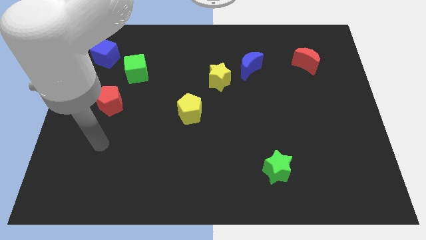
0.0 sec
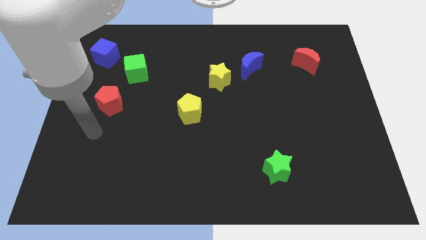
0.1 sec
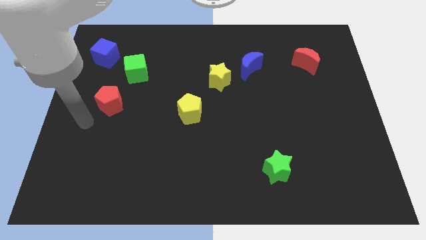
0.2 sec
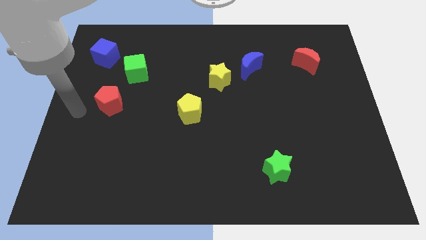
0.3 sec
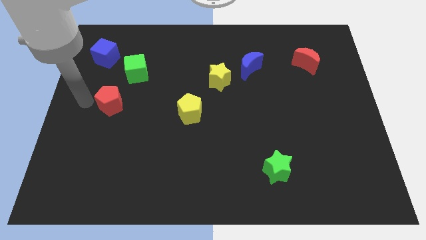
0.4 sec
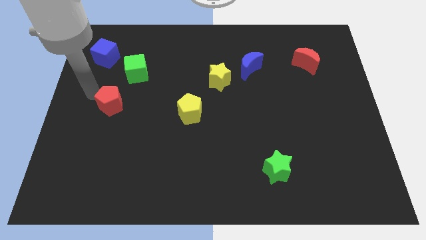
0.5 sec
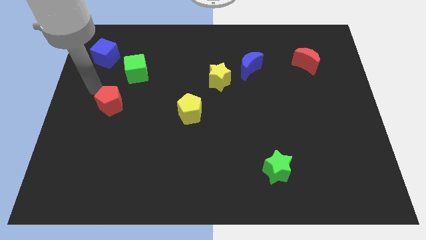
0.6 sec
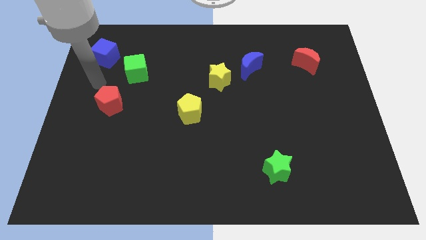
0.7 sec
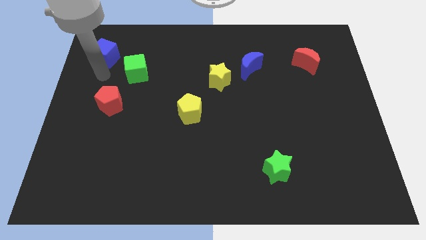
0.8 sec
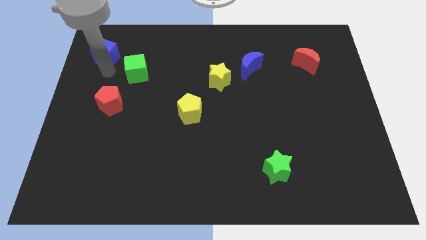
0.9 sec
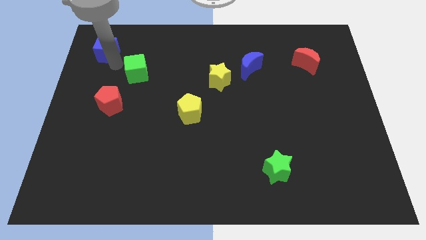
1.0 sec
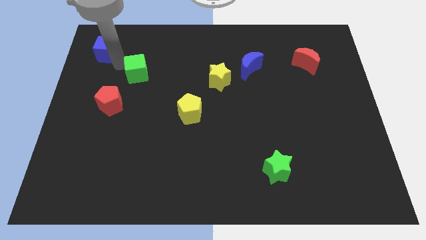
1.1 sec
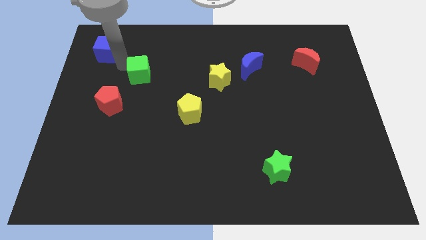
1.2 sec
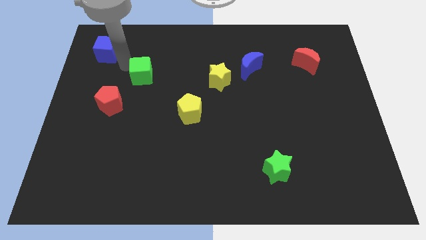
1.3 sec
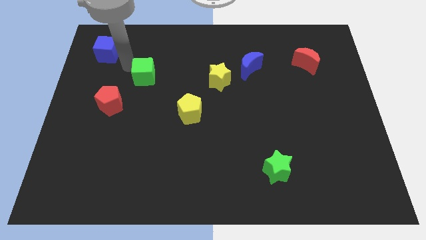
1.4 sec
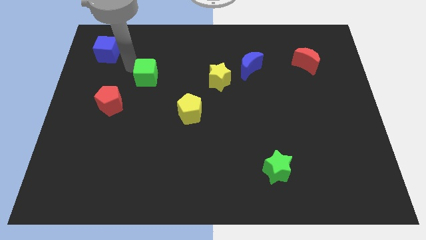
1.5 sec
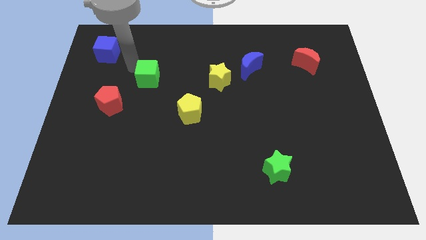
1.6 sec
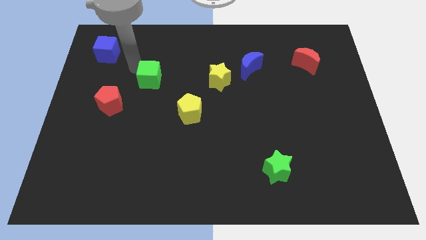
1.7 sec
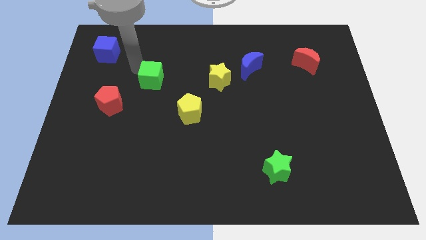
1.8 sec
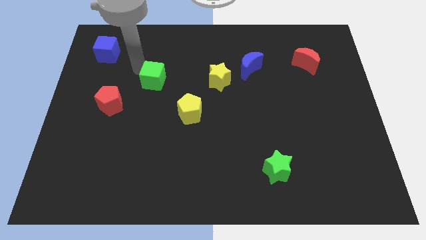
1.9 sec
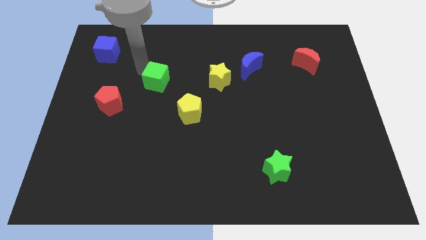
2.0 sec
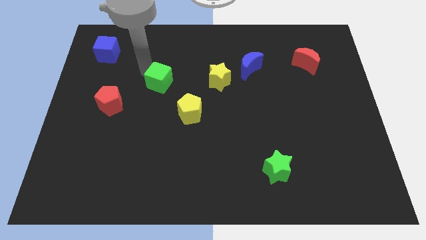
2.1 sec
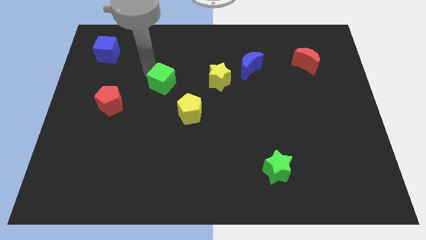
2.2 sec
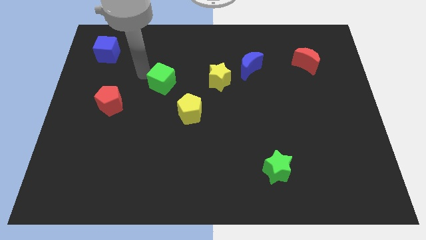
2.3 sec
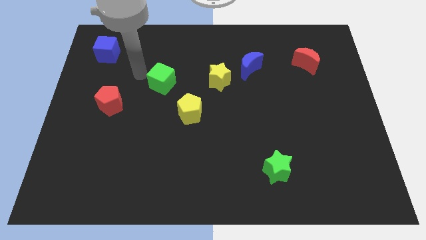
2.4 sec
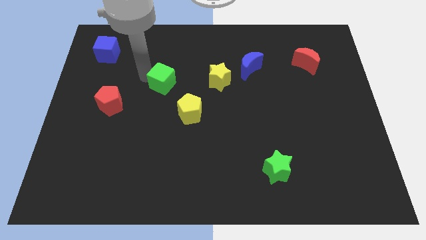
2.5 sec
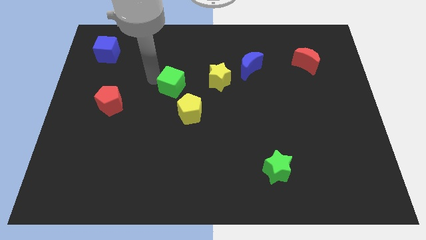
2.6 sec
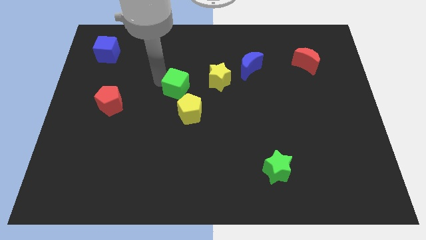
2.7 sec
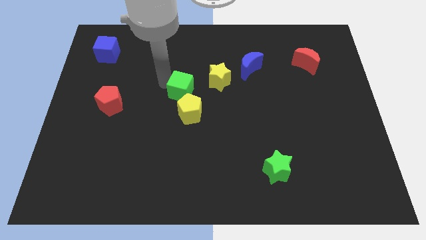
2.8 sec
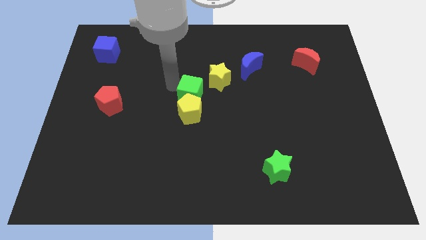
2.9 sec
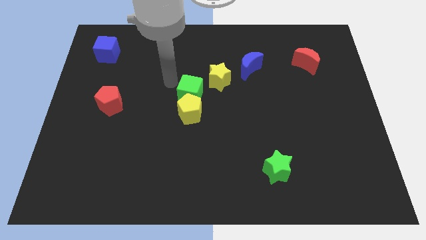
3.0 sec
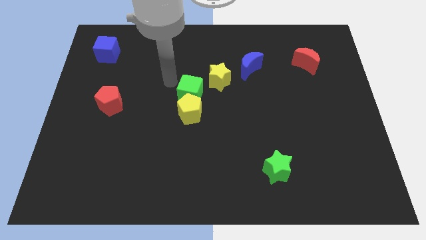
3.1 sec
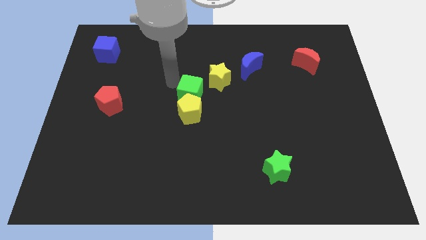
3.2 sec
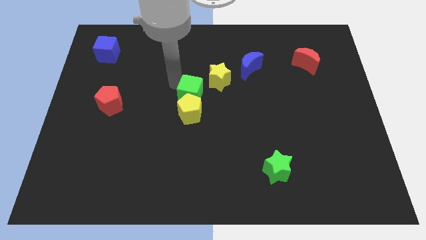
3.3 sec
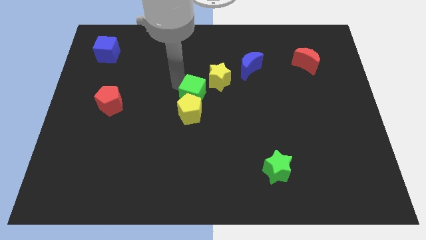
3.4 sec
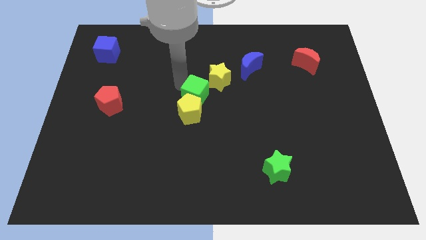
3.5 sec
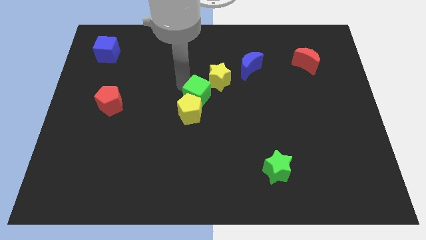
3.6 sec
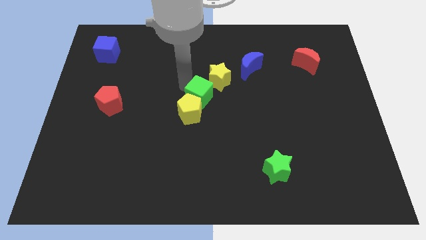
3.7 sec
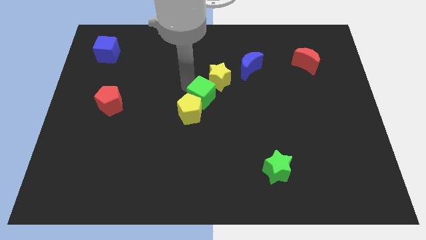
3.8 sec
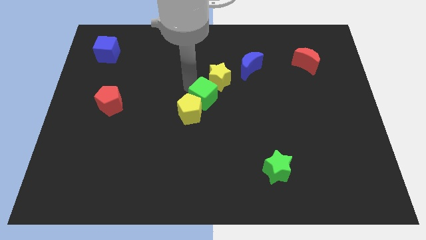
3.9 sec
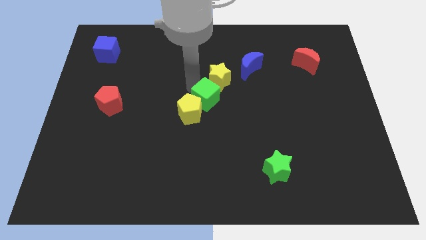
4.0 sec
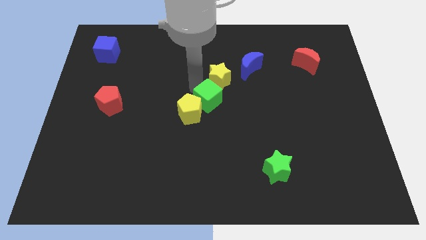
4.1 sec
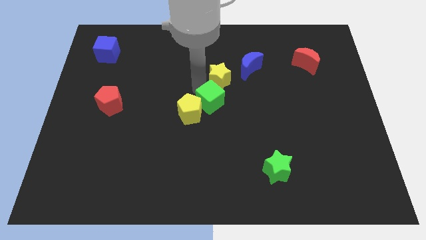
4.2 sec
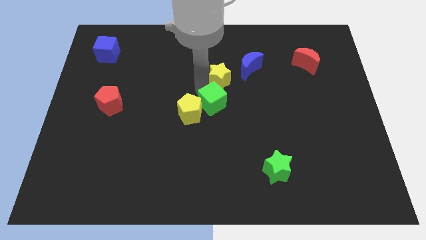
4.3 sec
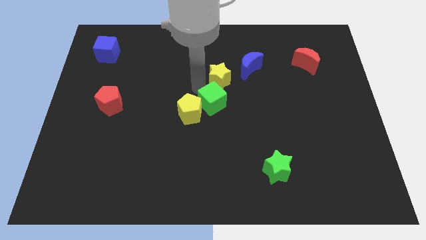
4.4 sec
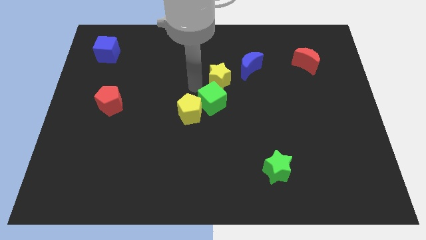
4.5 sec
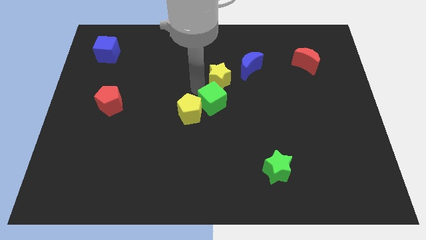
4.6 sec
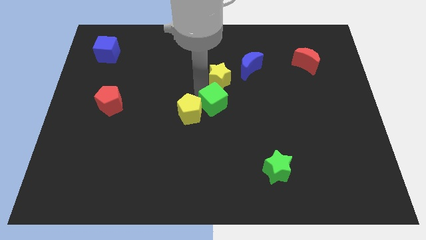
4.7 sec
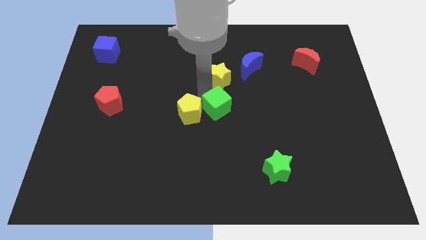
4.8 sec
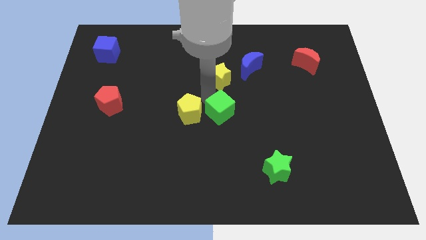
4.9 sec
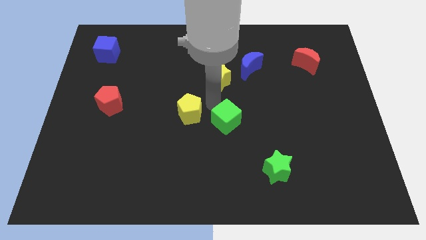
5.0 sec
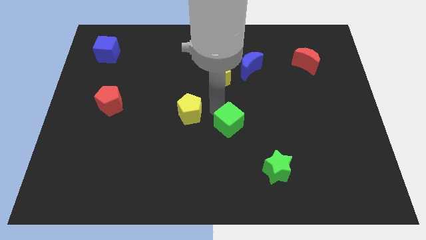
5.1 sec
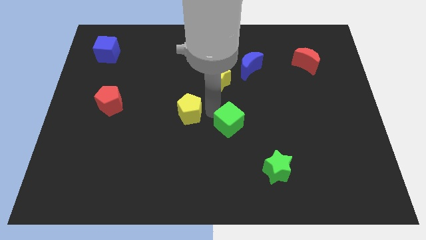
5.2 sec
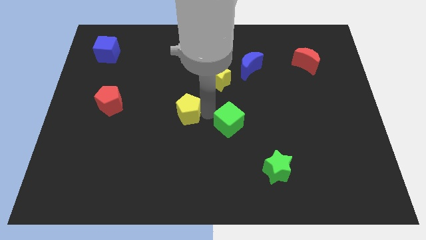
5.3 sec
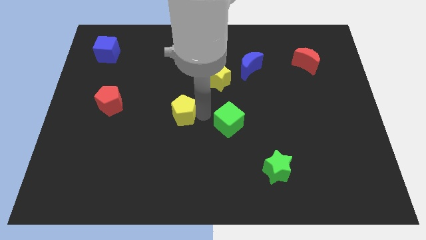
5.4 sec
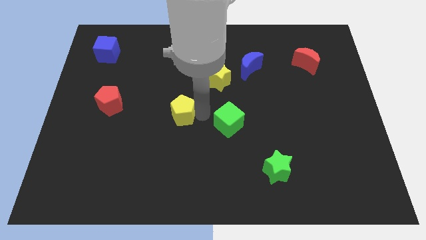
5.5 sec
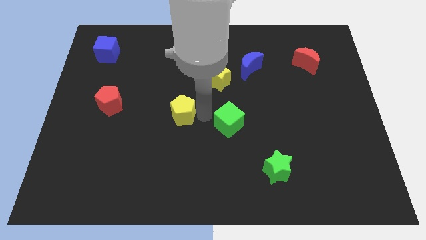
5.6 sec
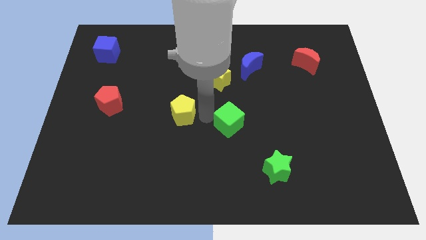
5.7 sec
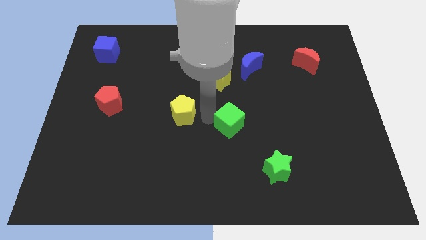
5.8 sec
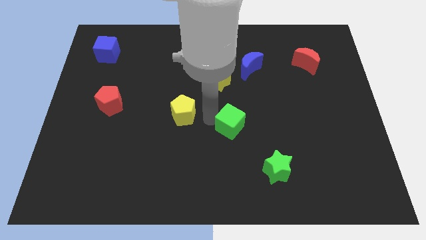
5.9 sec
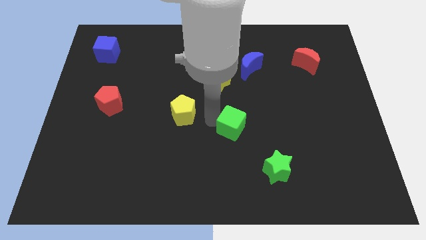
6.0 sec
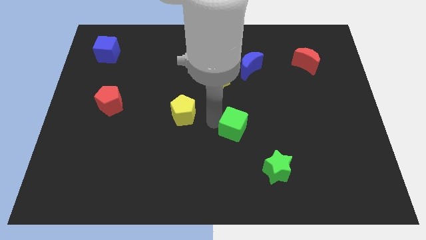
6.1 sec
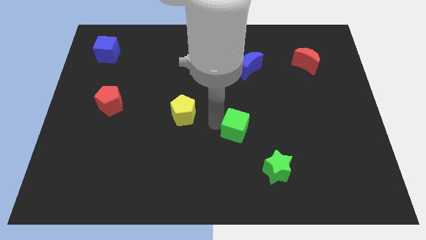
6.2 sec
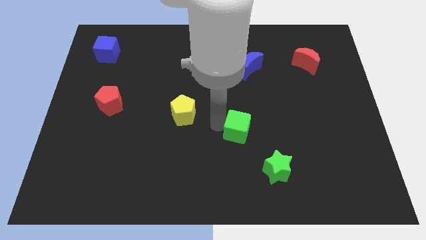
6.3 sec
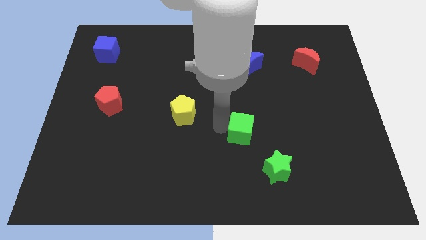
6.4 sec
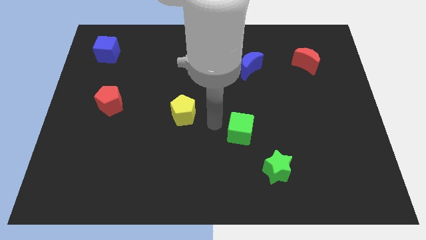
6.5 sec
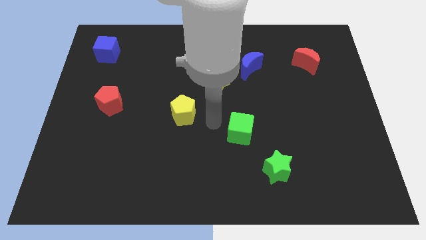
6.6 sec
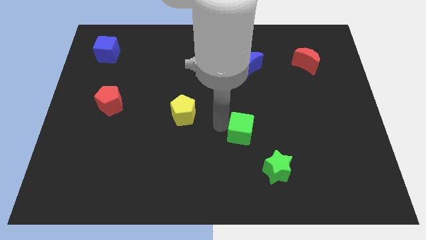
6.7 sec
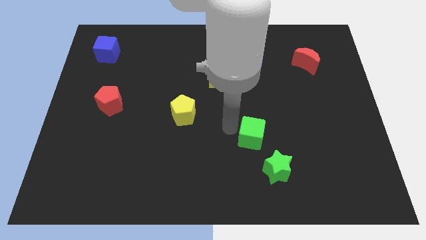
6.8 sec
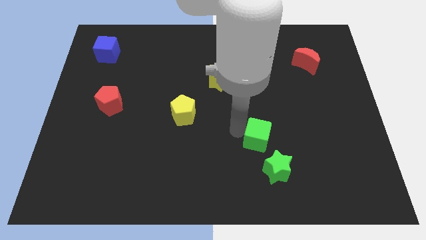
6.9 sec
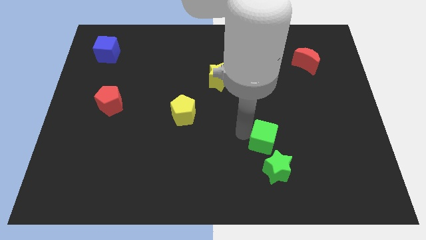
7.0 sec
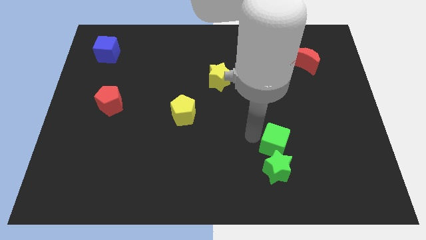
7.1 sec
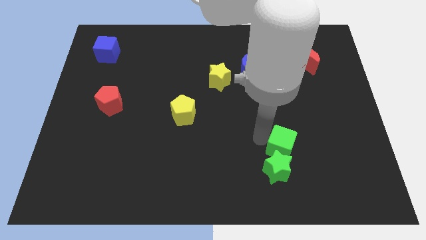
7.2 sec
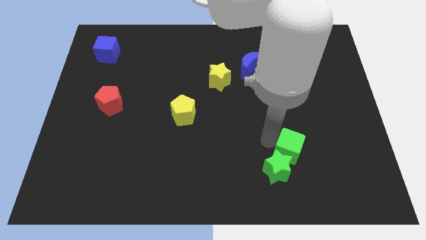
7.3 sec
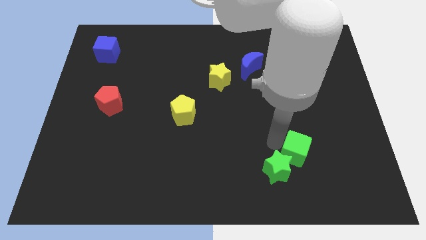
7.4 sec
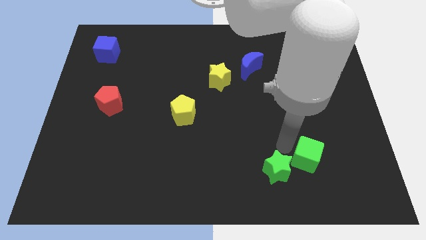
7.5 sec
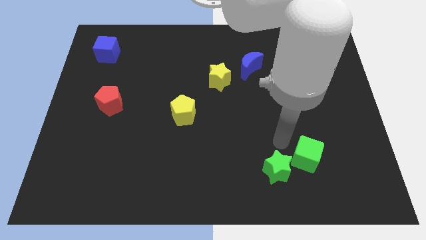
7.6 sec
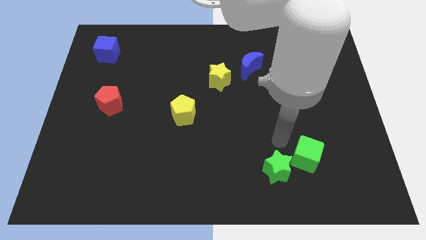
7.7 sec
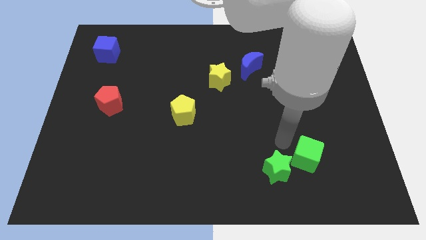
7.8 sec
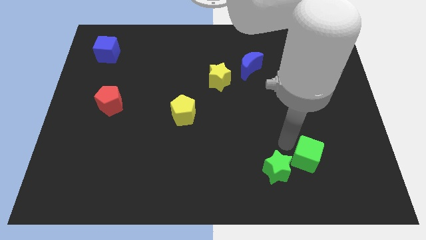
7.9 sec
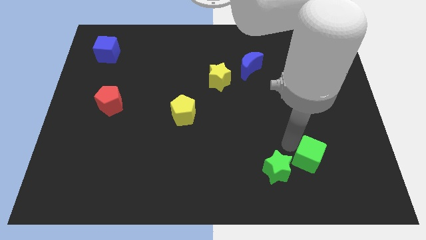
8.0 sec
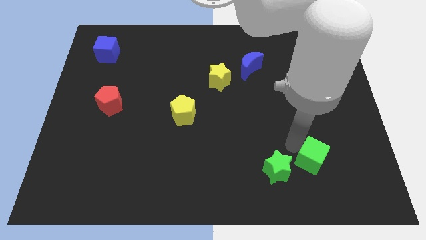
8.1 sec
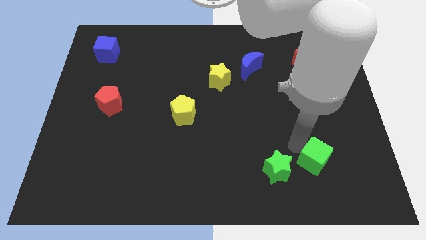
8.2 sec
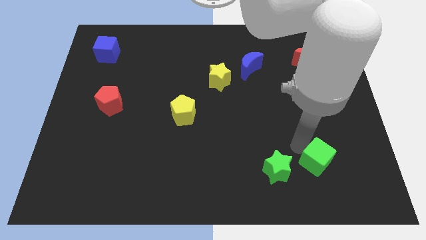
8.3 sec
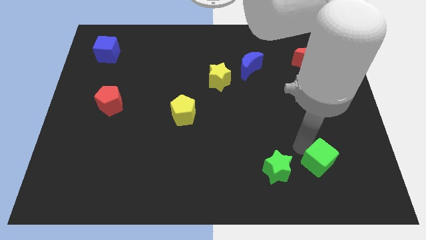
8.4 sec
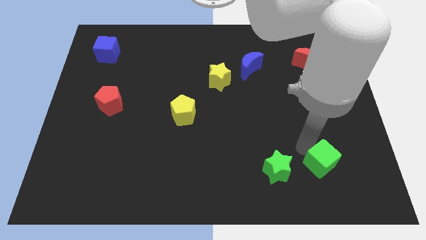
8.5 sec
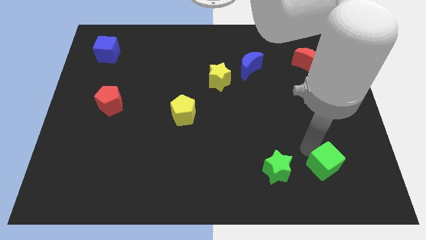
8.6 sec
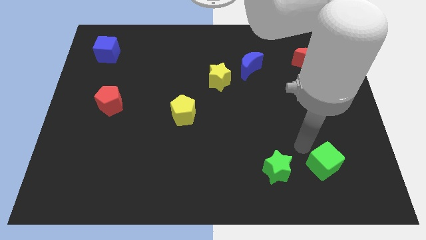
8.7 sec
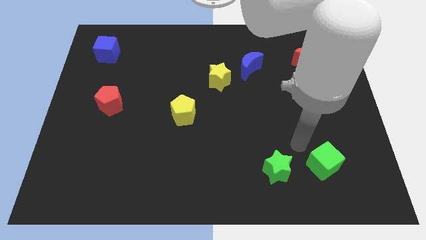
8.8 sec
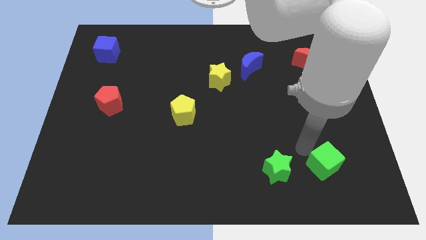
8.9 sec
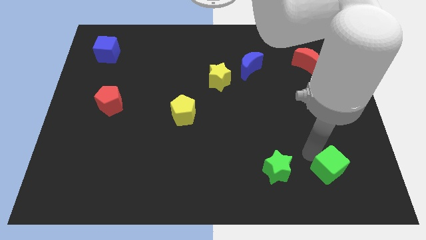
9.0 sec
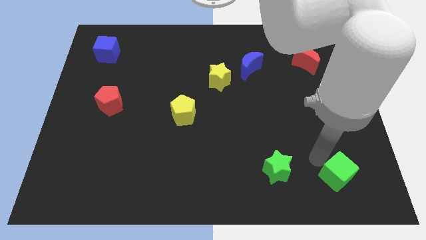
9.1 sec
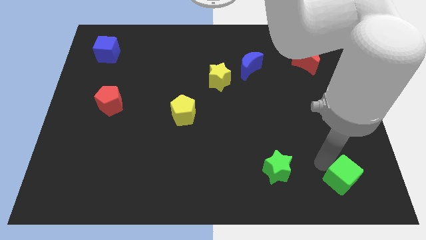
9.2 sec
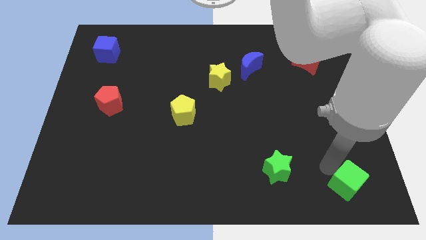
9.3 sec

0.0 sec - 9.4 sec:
push the green cube to the bottom right corner
